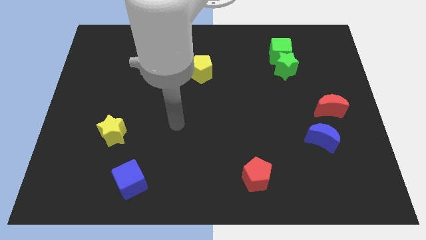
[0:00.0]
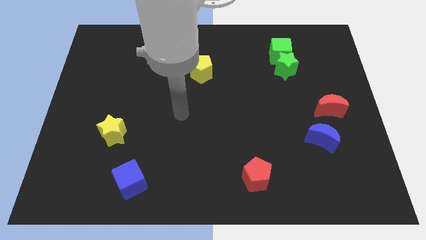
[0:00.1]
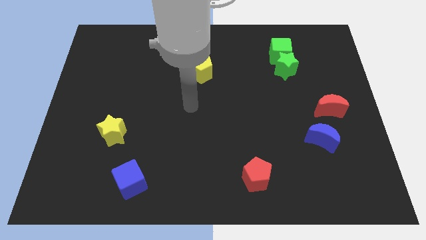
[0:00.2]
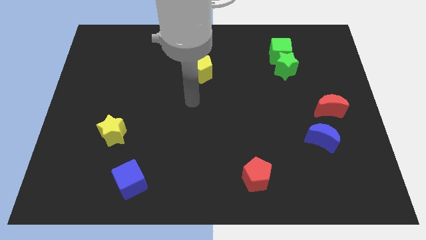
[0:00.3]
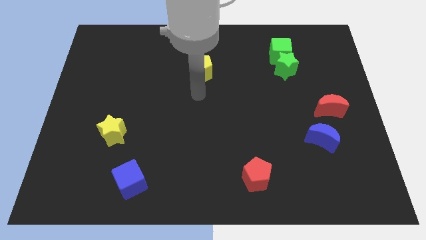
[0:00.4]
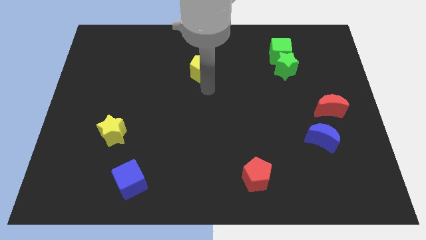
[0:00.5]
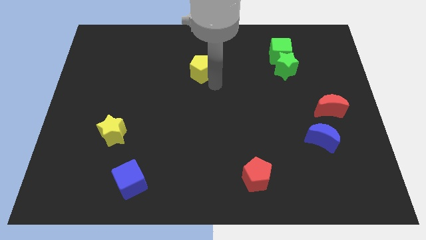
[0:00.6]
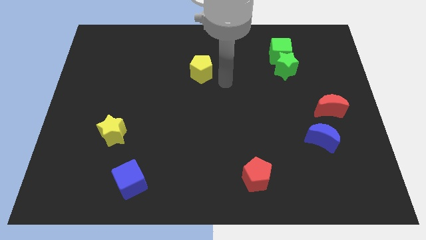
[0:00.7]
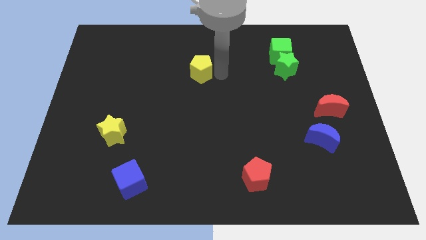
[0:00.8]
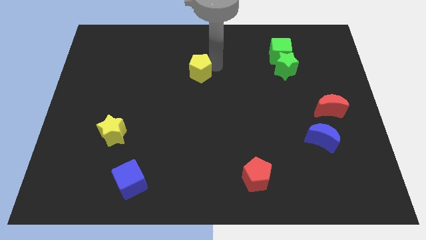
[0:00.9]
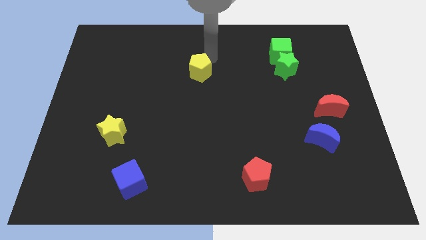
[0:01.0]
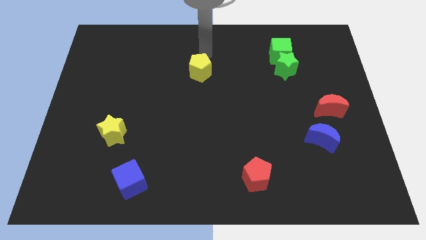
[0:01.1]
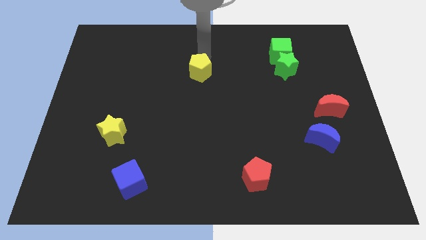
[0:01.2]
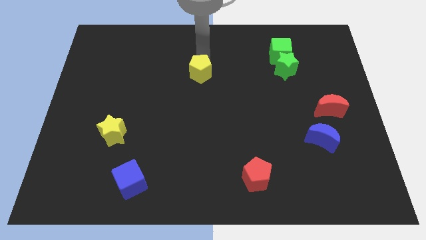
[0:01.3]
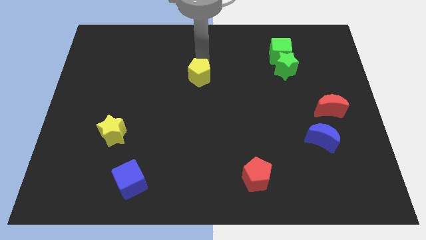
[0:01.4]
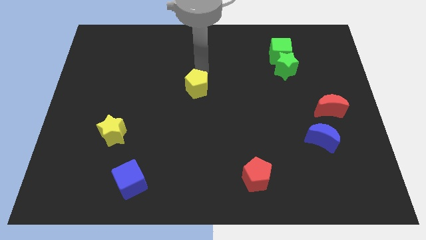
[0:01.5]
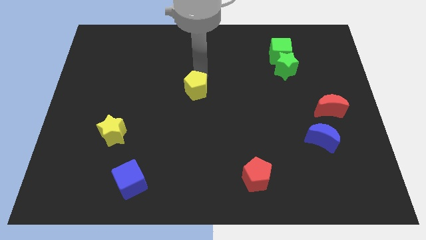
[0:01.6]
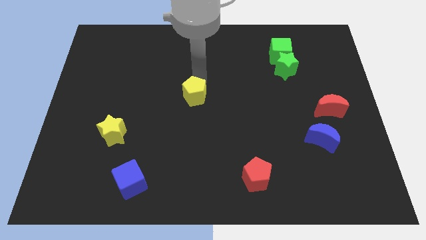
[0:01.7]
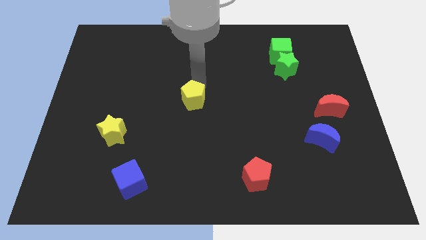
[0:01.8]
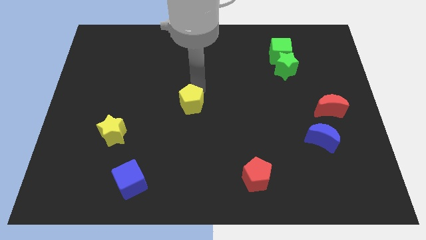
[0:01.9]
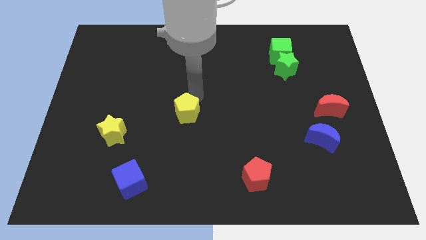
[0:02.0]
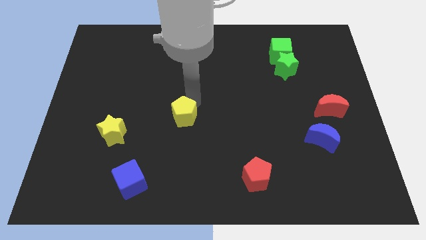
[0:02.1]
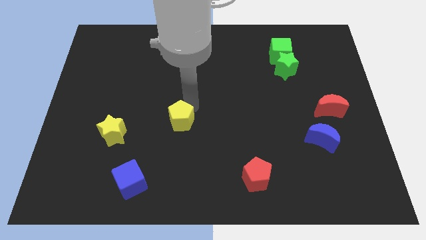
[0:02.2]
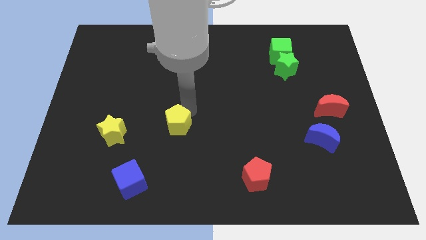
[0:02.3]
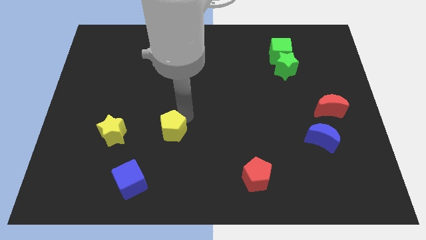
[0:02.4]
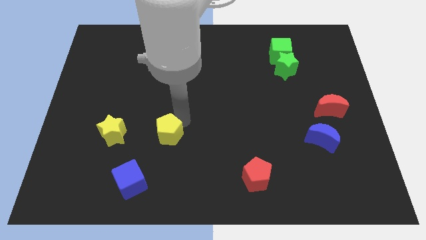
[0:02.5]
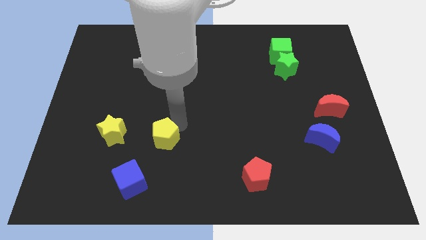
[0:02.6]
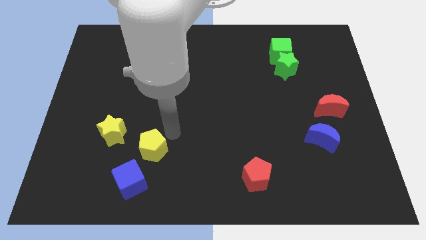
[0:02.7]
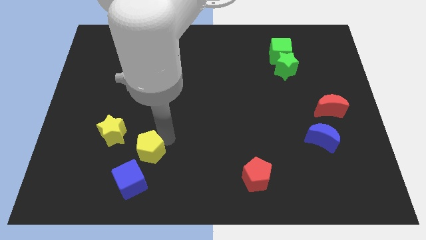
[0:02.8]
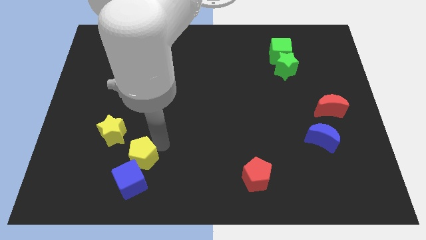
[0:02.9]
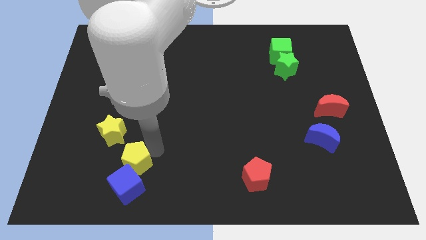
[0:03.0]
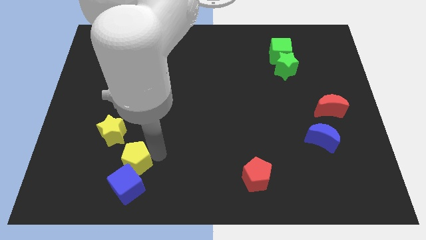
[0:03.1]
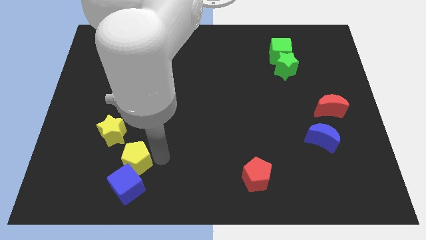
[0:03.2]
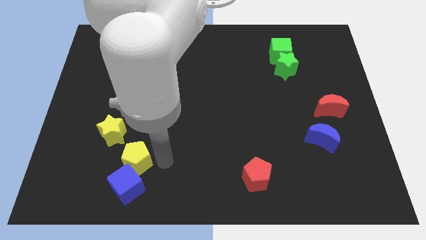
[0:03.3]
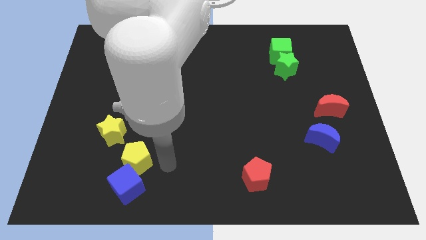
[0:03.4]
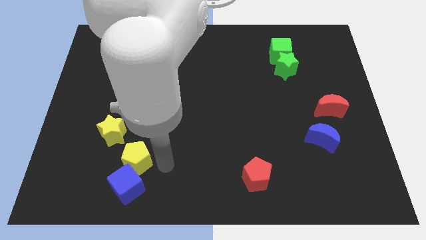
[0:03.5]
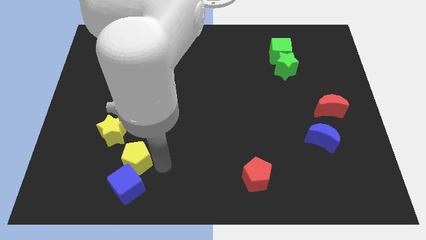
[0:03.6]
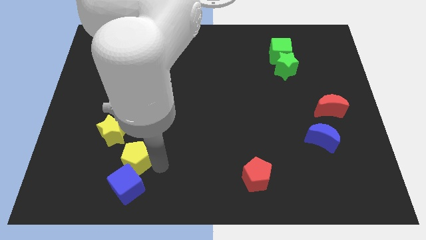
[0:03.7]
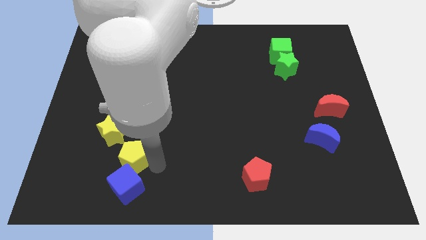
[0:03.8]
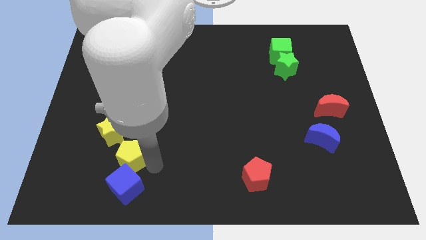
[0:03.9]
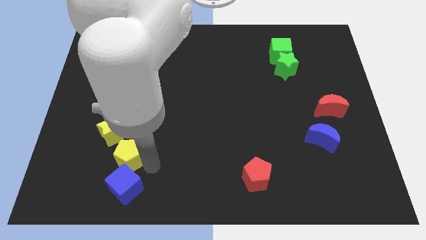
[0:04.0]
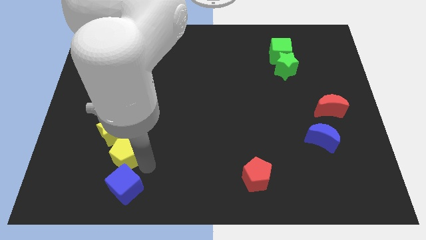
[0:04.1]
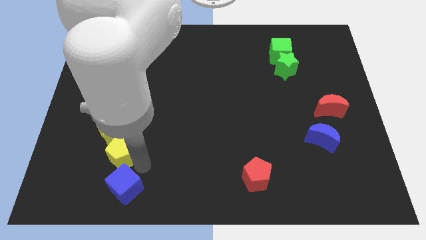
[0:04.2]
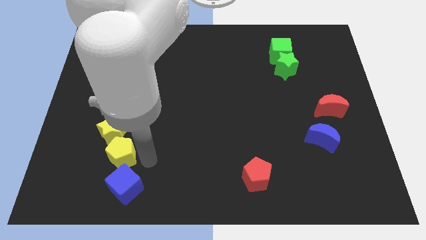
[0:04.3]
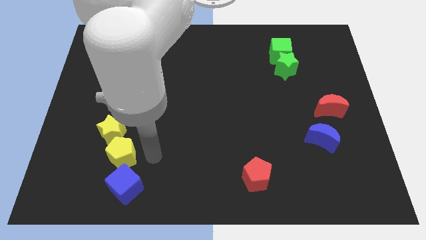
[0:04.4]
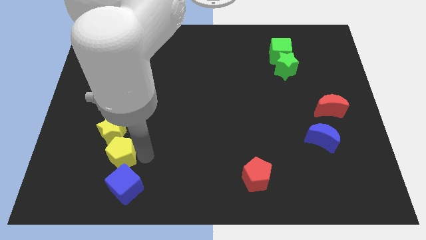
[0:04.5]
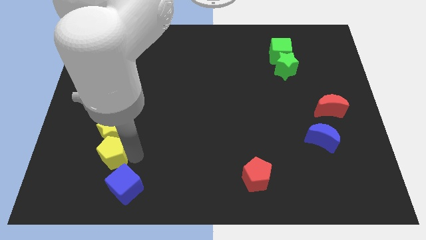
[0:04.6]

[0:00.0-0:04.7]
push the yellow pentagon diagonally down and to the left of the yellow star

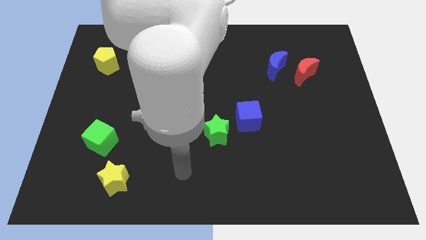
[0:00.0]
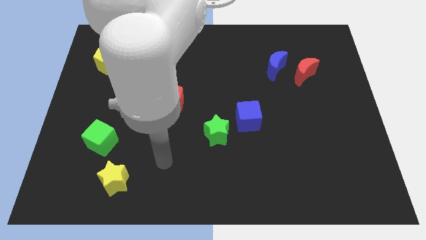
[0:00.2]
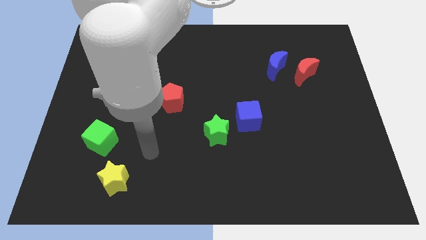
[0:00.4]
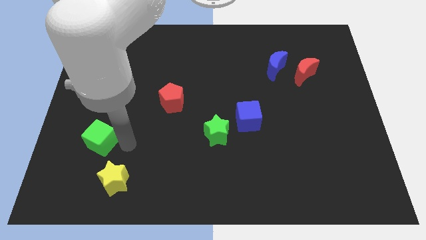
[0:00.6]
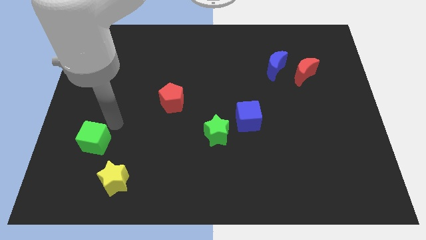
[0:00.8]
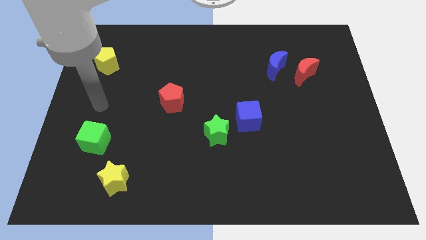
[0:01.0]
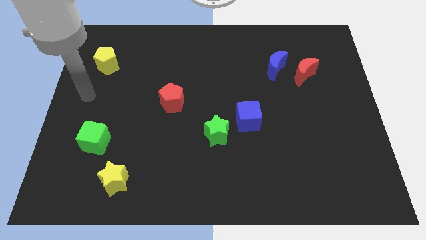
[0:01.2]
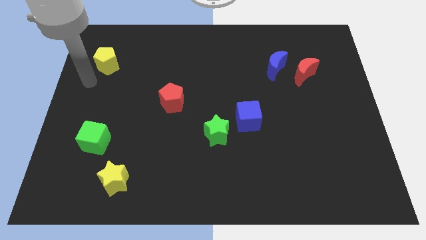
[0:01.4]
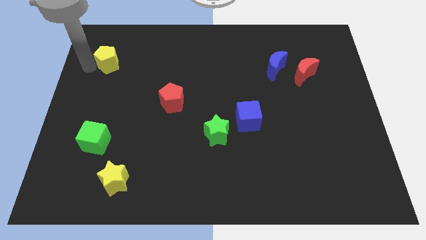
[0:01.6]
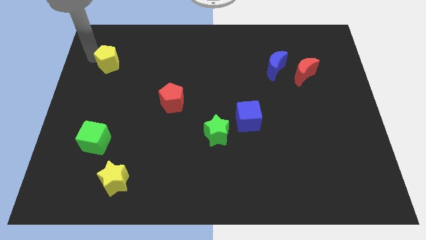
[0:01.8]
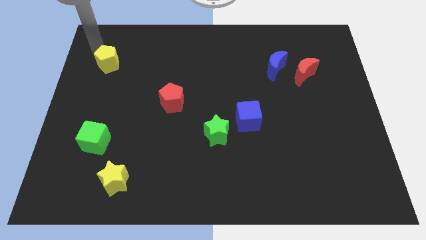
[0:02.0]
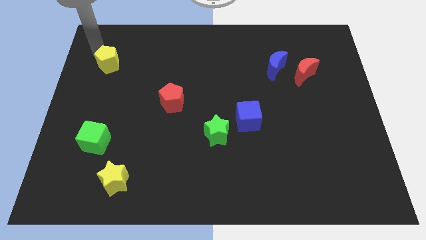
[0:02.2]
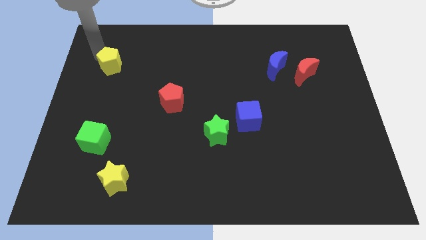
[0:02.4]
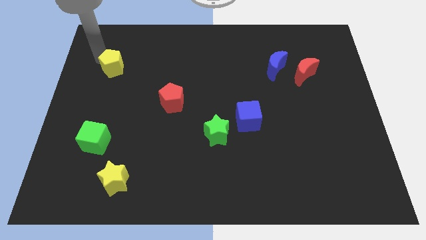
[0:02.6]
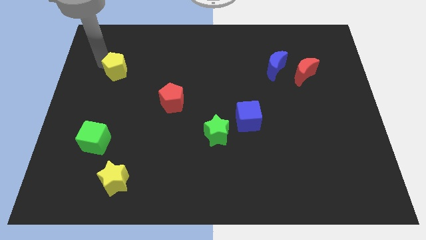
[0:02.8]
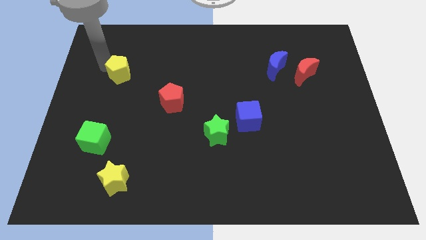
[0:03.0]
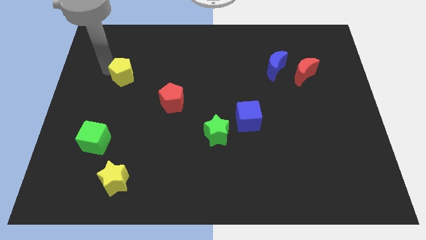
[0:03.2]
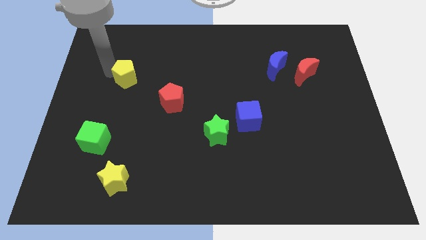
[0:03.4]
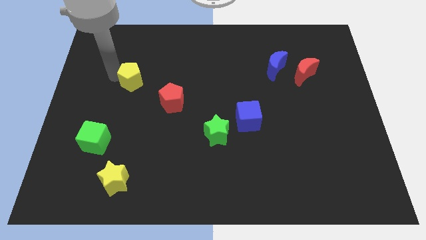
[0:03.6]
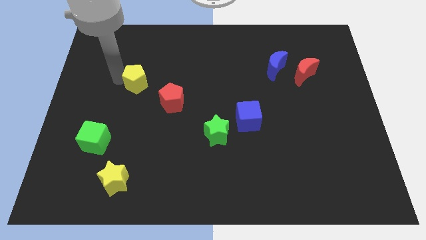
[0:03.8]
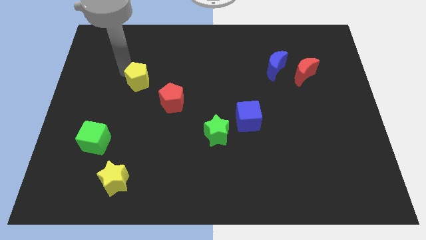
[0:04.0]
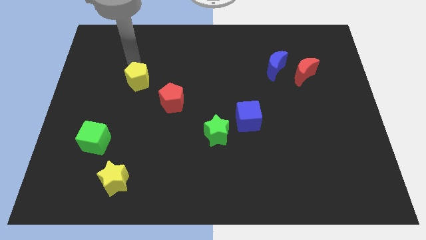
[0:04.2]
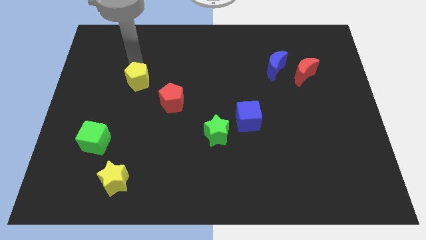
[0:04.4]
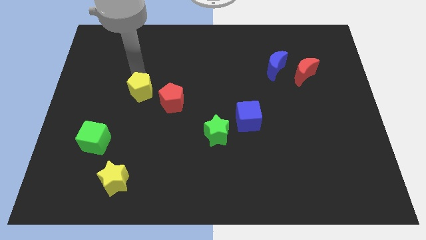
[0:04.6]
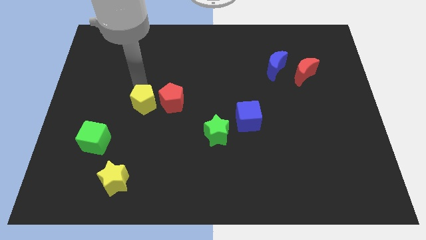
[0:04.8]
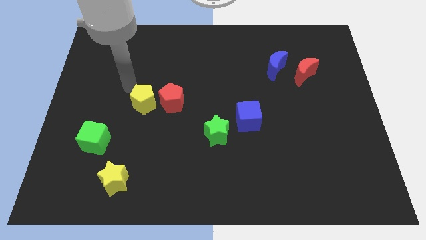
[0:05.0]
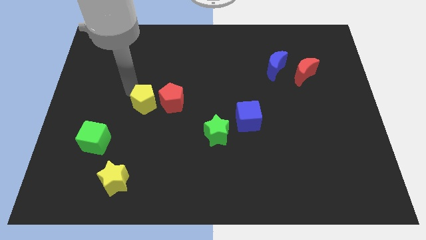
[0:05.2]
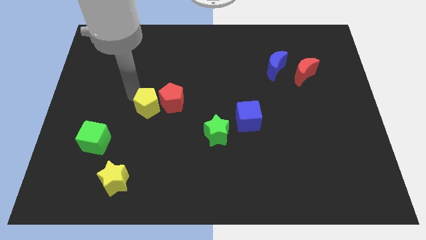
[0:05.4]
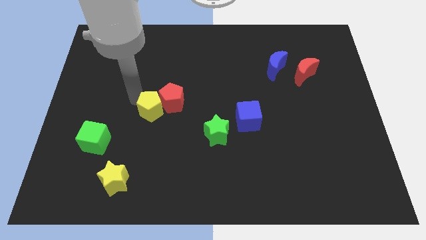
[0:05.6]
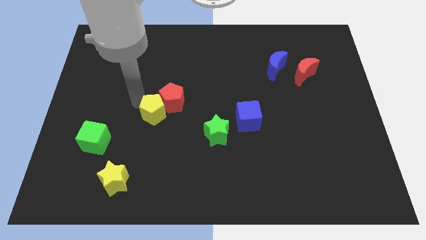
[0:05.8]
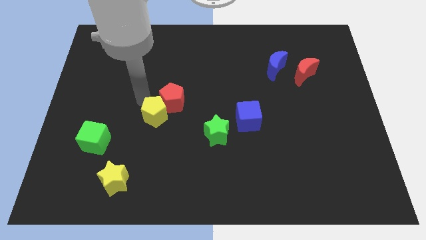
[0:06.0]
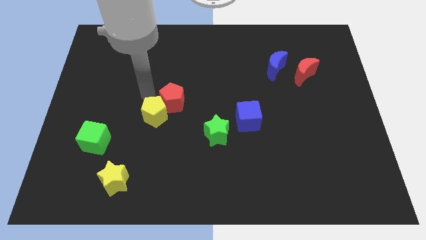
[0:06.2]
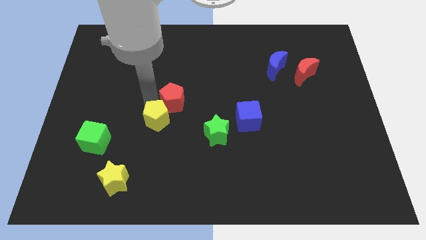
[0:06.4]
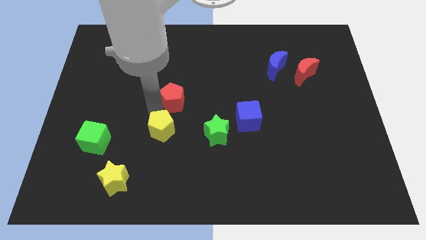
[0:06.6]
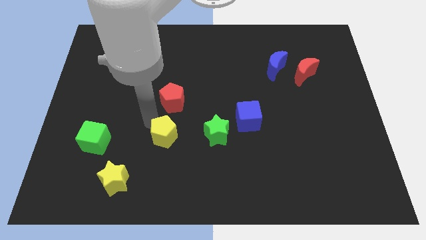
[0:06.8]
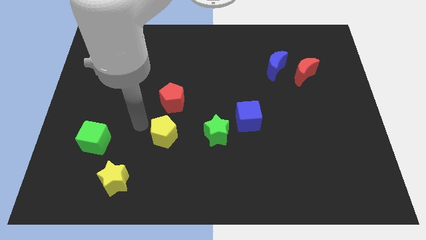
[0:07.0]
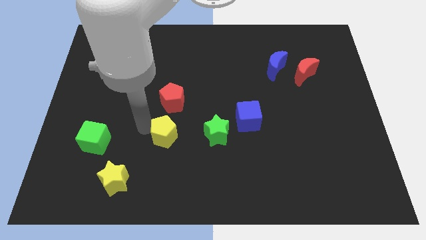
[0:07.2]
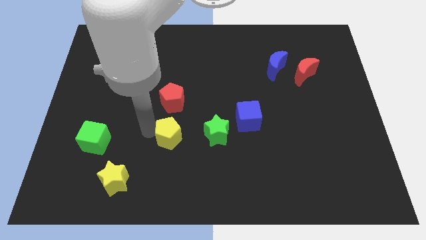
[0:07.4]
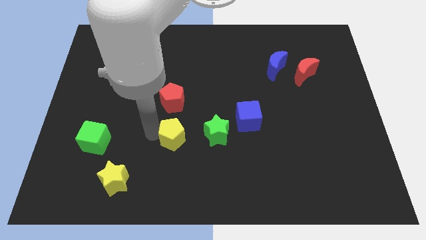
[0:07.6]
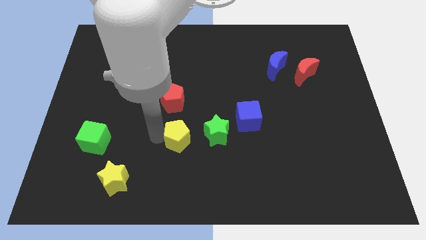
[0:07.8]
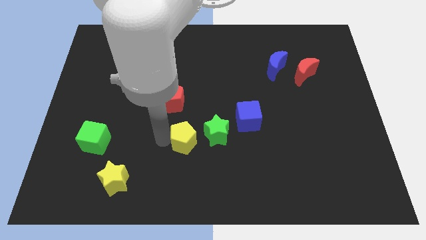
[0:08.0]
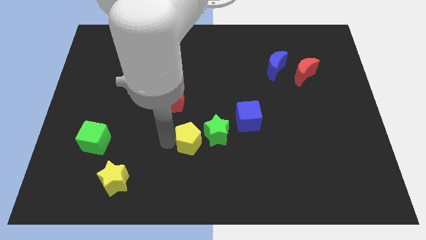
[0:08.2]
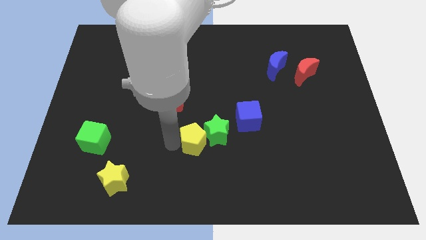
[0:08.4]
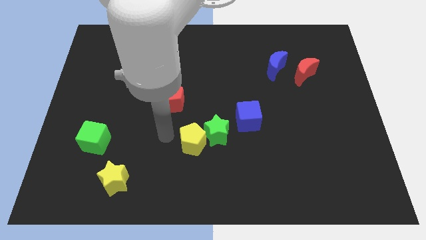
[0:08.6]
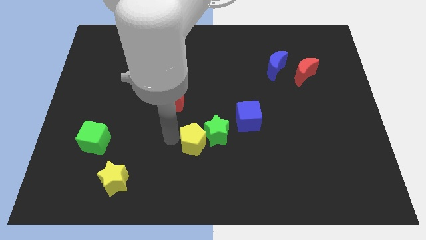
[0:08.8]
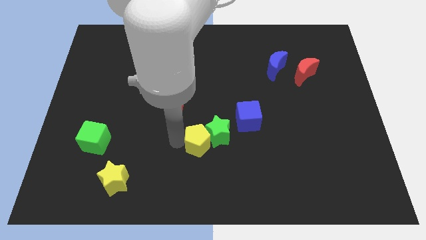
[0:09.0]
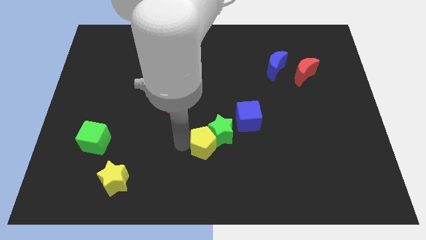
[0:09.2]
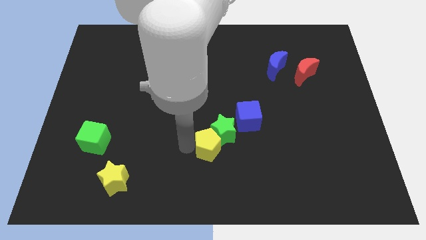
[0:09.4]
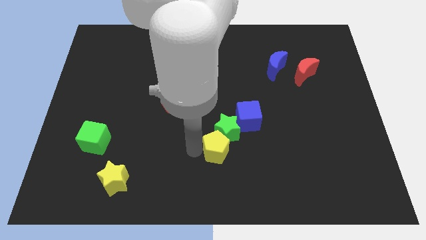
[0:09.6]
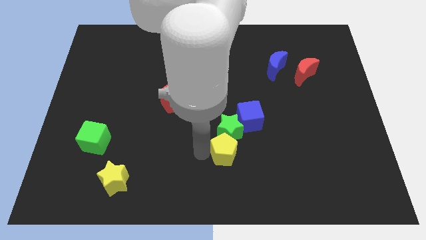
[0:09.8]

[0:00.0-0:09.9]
slide the yellow pentagon diagonally down and to the right of the green star
